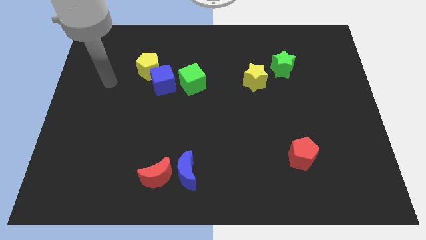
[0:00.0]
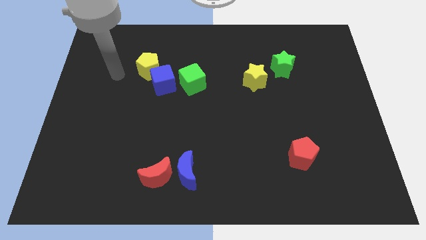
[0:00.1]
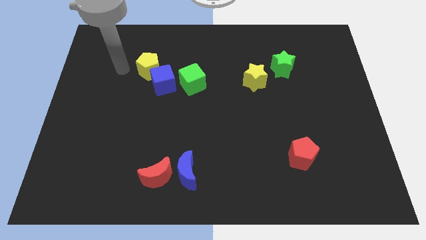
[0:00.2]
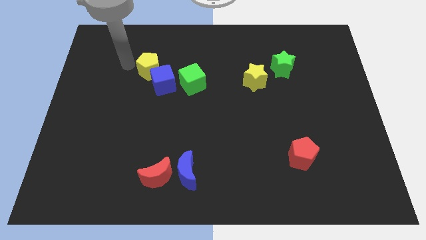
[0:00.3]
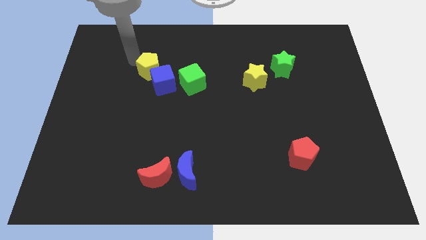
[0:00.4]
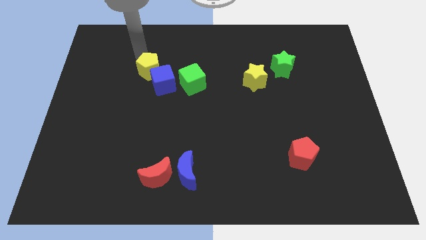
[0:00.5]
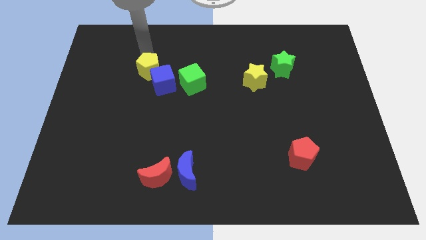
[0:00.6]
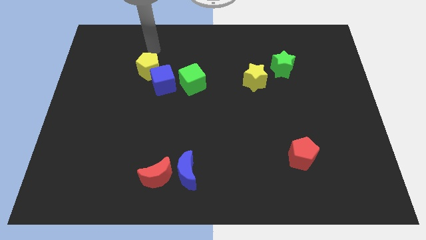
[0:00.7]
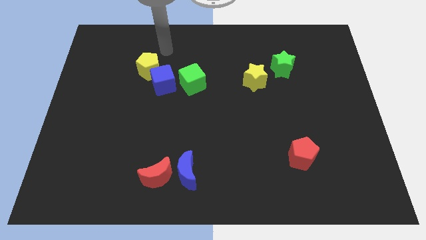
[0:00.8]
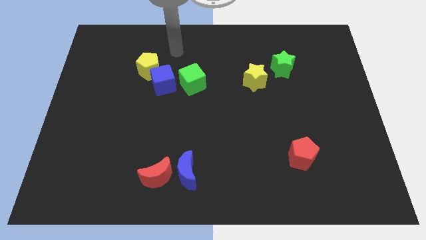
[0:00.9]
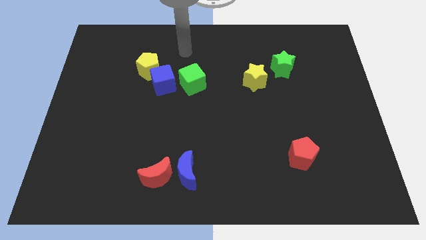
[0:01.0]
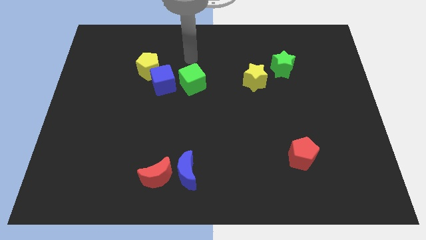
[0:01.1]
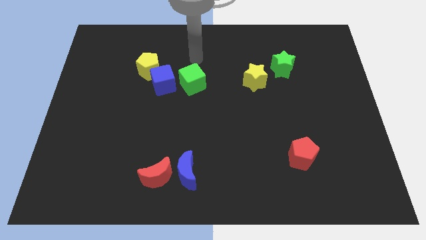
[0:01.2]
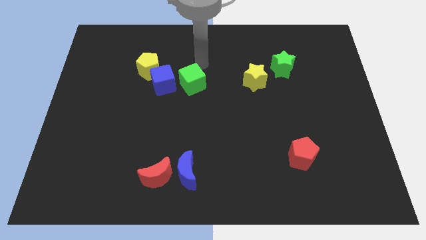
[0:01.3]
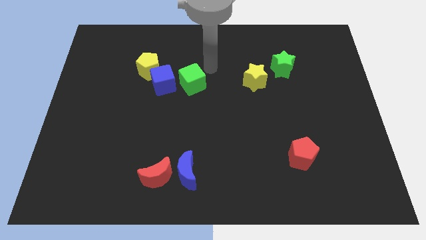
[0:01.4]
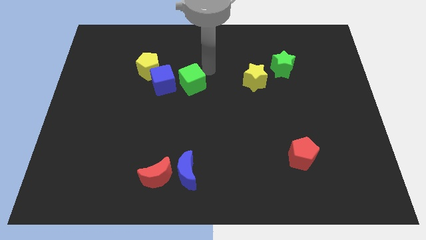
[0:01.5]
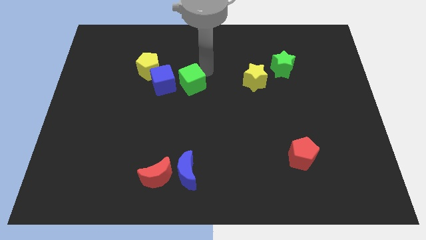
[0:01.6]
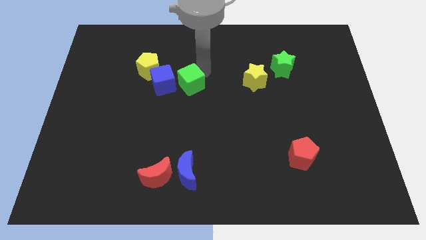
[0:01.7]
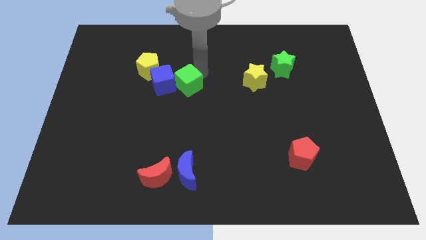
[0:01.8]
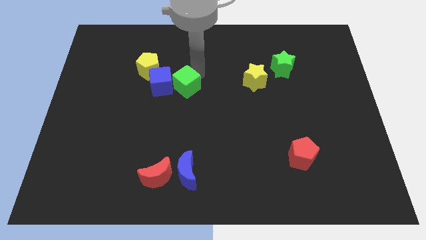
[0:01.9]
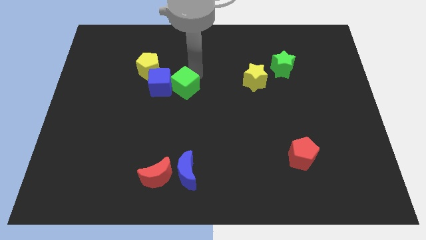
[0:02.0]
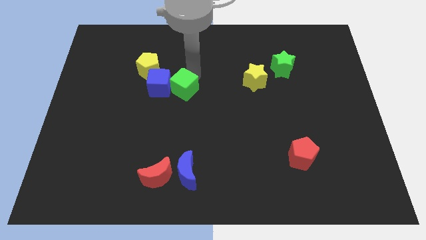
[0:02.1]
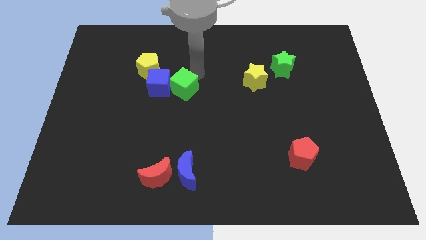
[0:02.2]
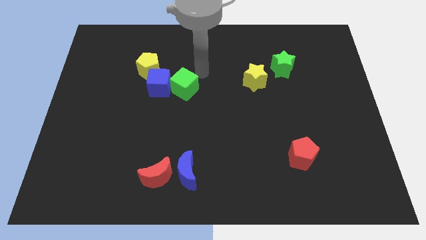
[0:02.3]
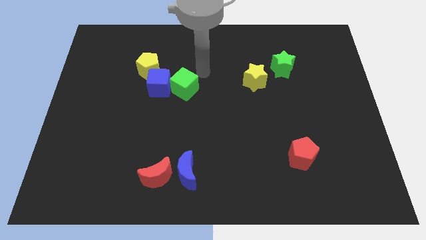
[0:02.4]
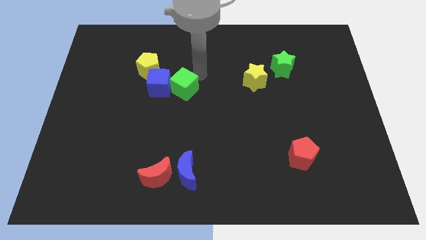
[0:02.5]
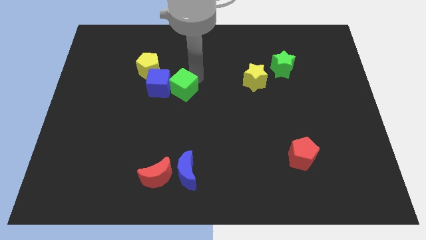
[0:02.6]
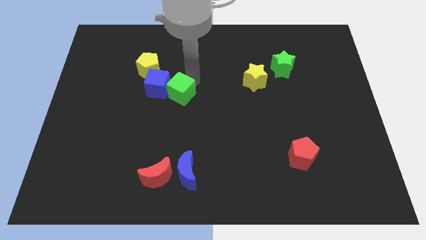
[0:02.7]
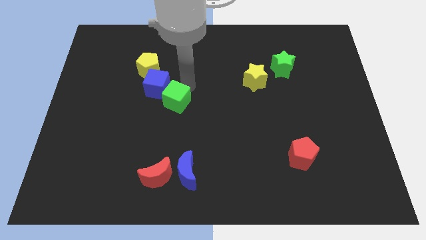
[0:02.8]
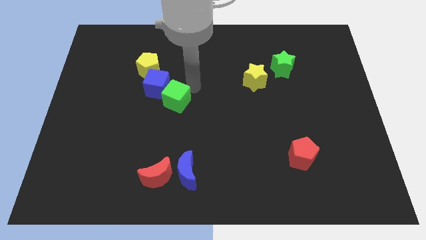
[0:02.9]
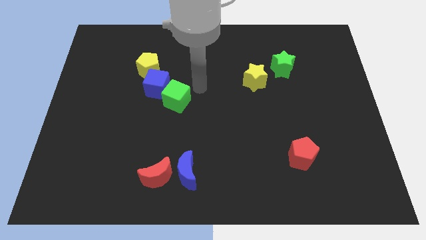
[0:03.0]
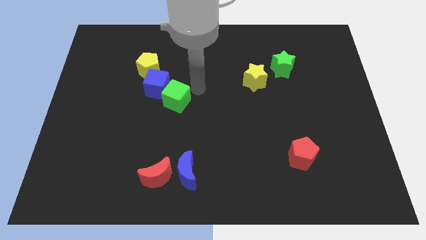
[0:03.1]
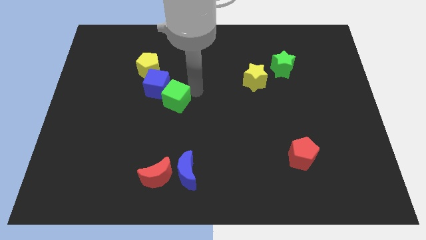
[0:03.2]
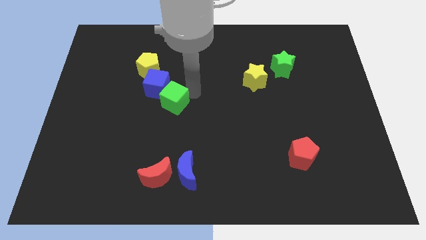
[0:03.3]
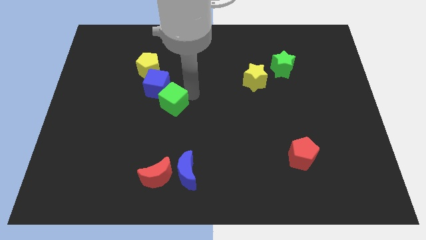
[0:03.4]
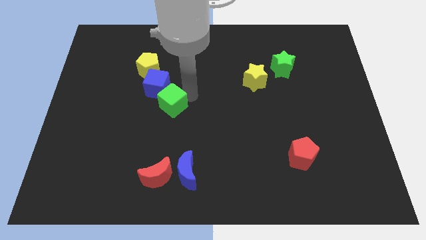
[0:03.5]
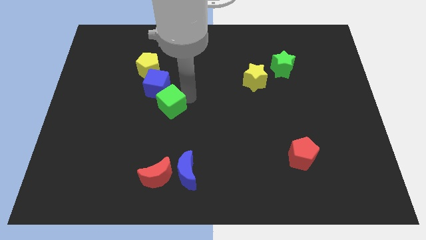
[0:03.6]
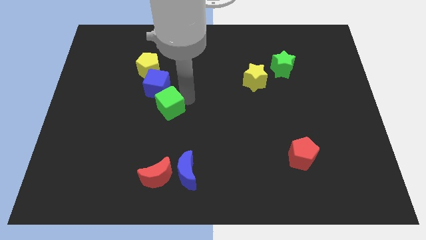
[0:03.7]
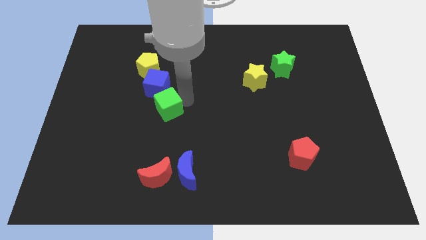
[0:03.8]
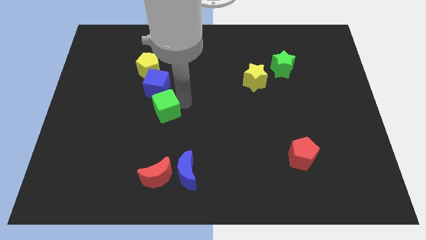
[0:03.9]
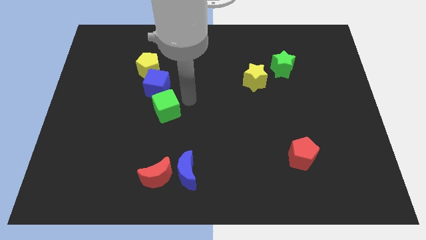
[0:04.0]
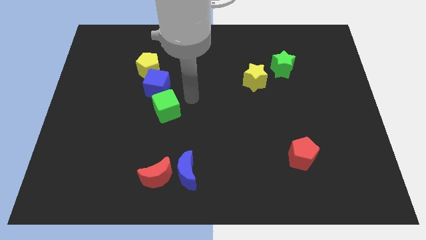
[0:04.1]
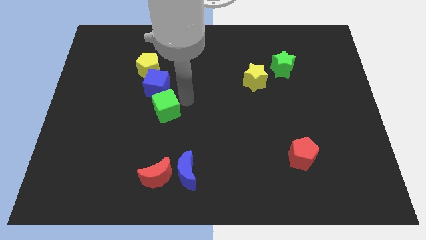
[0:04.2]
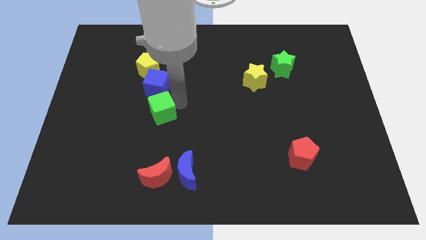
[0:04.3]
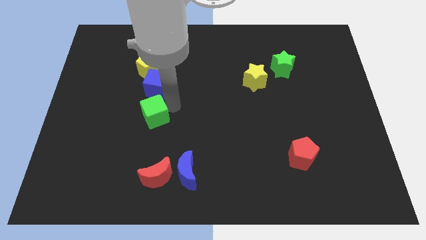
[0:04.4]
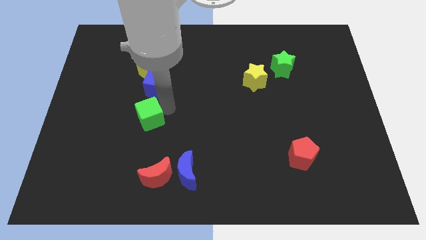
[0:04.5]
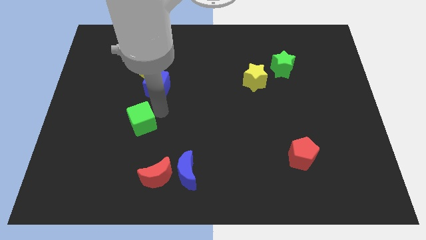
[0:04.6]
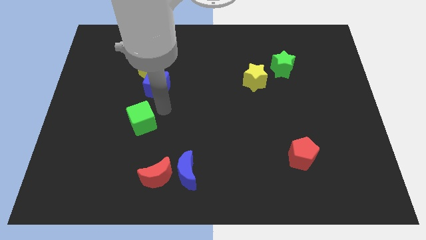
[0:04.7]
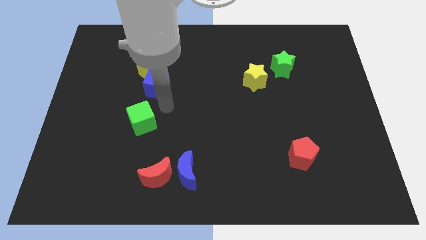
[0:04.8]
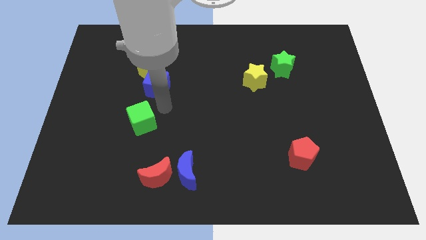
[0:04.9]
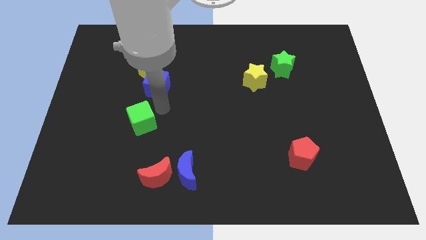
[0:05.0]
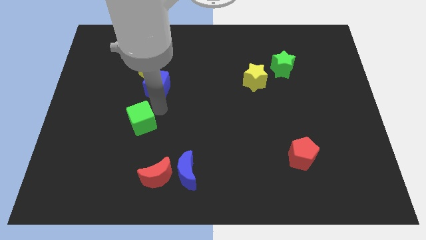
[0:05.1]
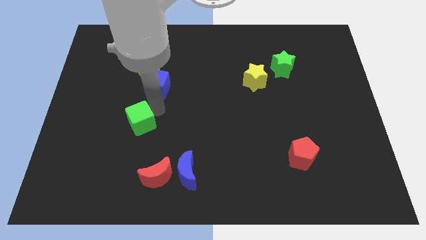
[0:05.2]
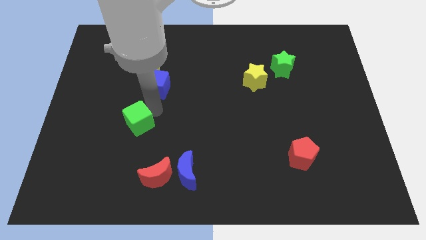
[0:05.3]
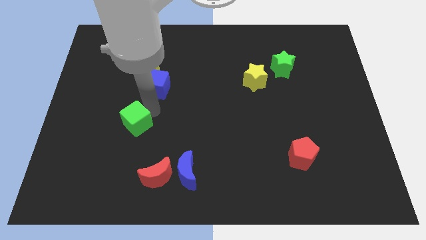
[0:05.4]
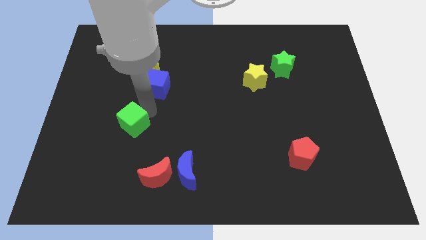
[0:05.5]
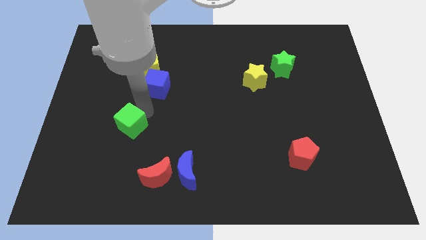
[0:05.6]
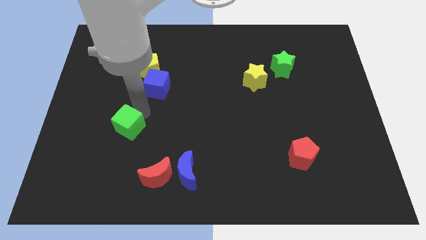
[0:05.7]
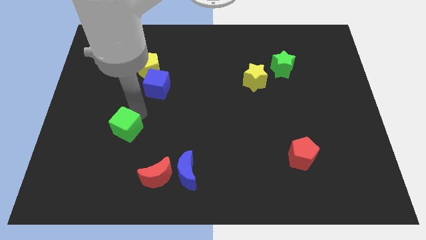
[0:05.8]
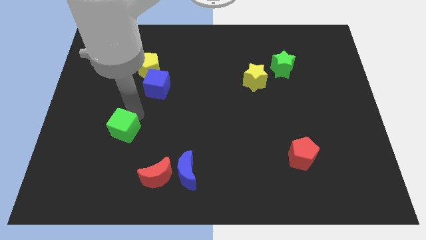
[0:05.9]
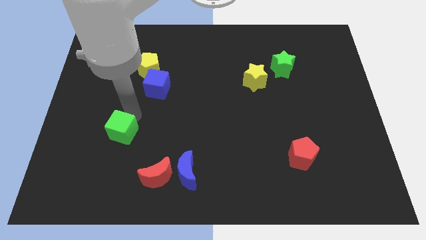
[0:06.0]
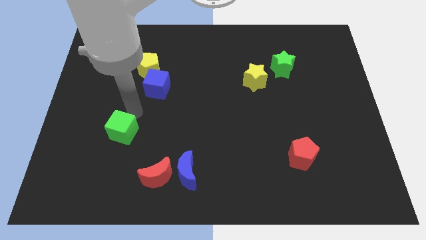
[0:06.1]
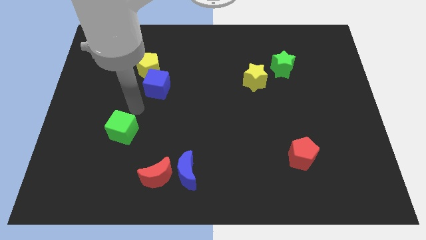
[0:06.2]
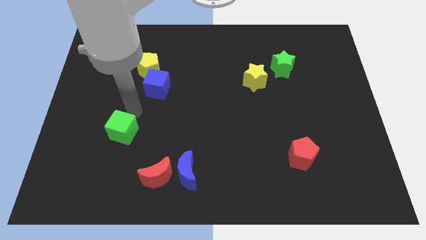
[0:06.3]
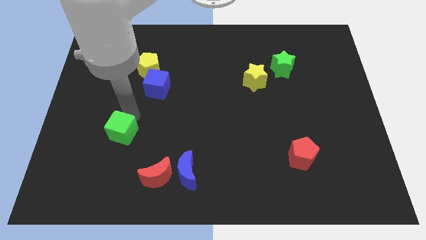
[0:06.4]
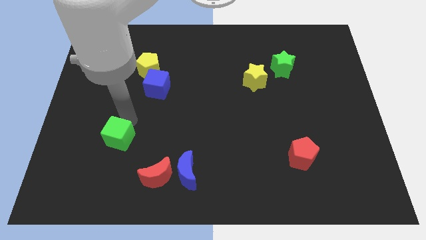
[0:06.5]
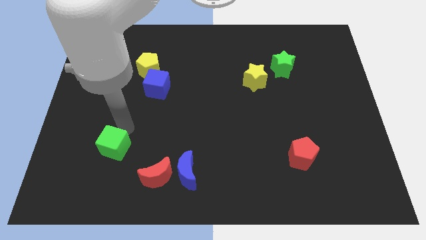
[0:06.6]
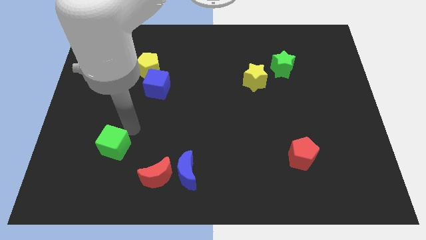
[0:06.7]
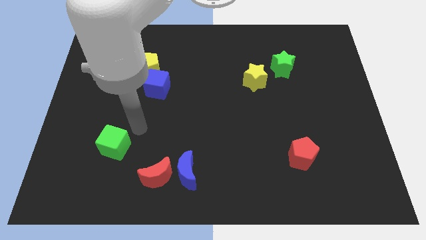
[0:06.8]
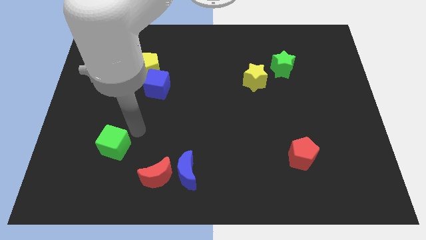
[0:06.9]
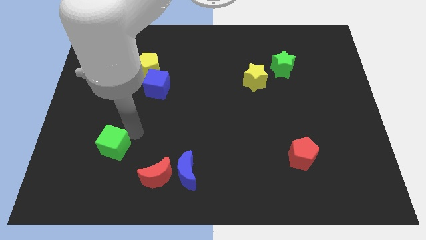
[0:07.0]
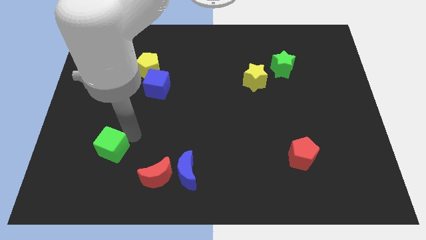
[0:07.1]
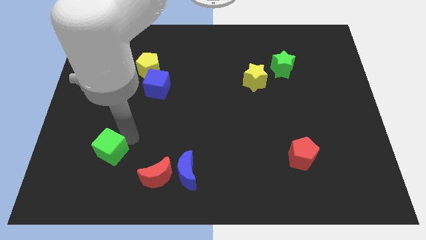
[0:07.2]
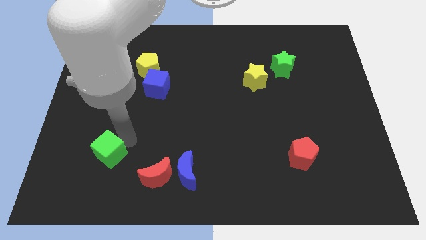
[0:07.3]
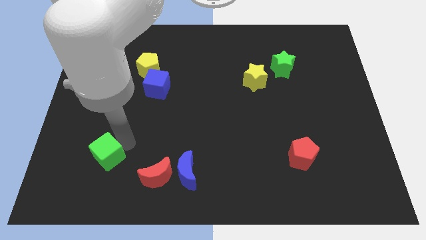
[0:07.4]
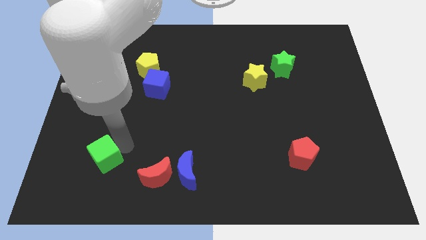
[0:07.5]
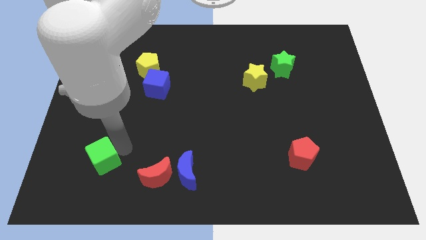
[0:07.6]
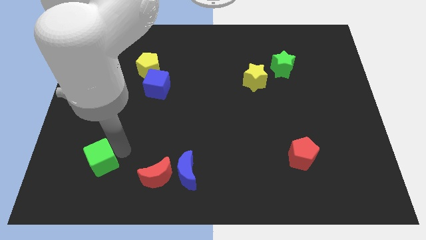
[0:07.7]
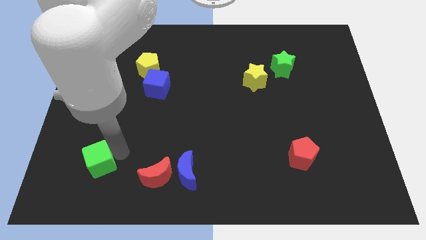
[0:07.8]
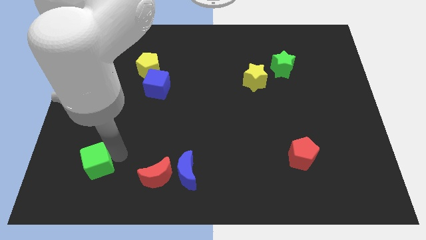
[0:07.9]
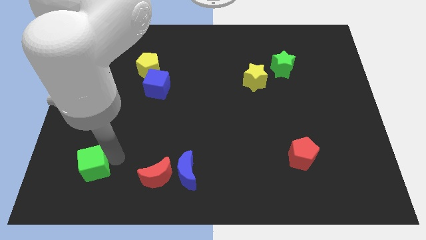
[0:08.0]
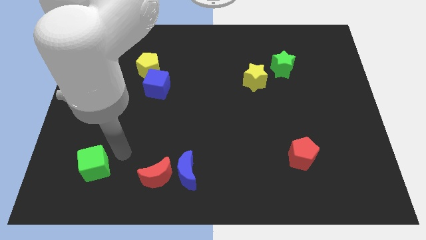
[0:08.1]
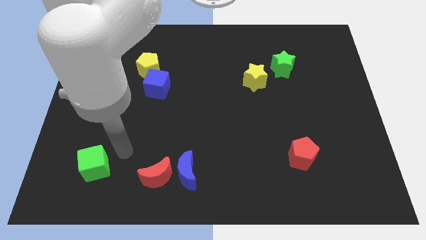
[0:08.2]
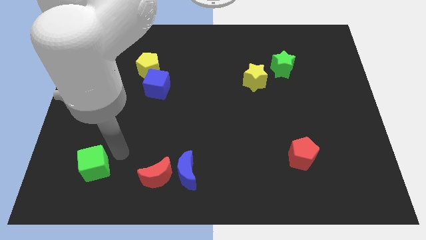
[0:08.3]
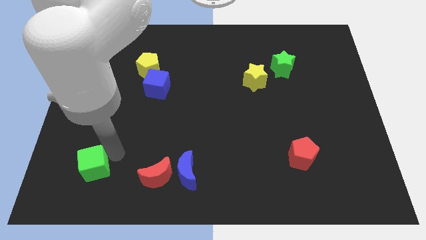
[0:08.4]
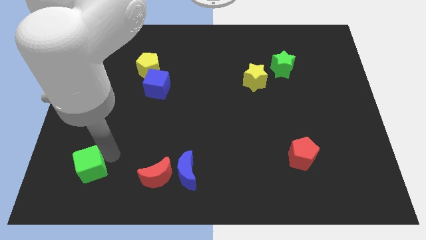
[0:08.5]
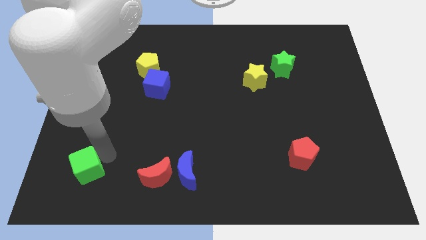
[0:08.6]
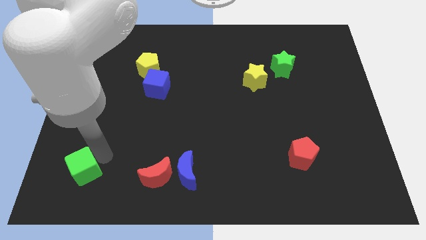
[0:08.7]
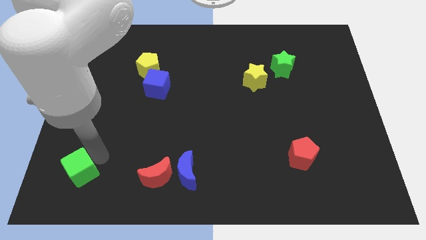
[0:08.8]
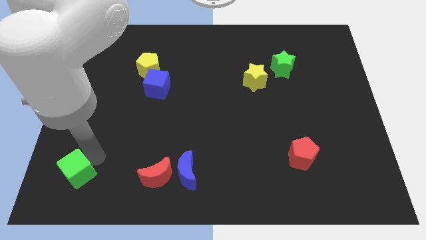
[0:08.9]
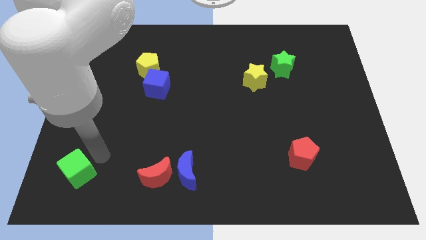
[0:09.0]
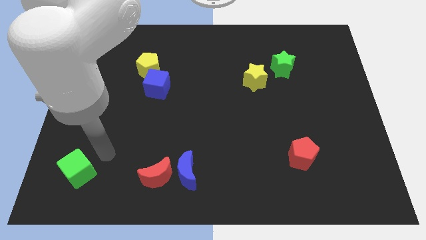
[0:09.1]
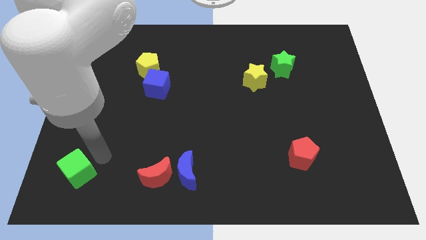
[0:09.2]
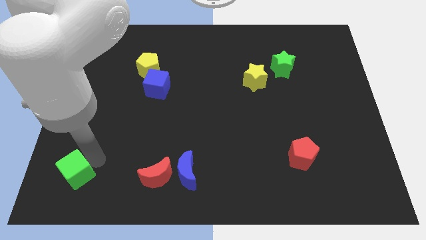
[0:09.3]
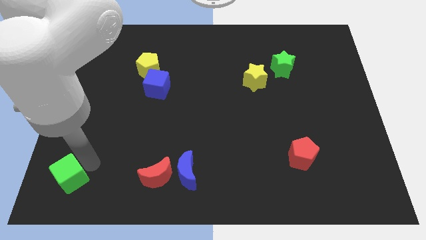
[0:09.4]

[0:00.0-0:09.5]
move the green cube to the bottom left of the board
